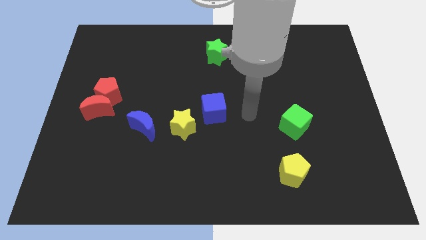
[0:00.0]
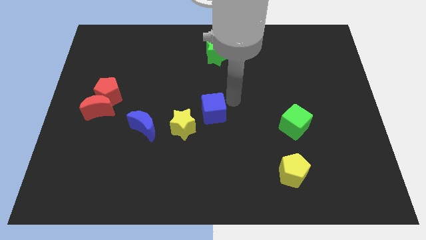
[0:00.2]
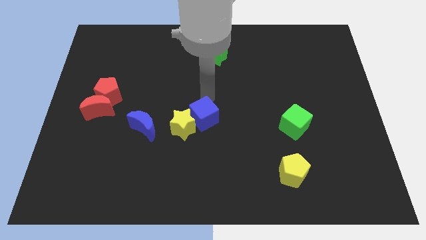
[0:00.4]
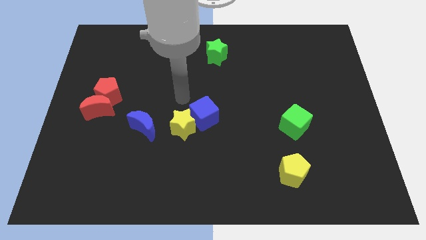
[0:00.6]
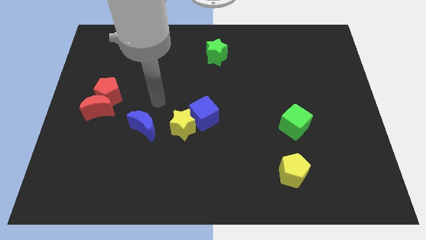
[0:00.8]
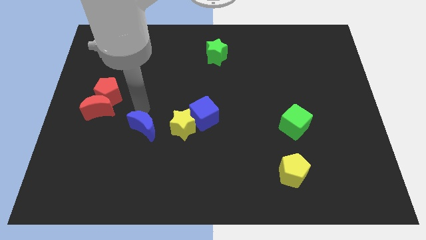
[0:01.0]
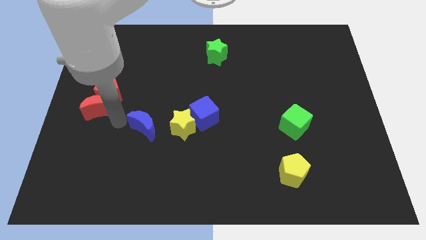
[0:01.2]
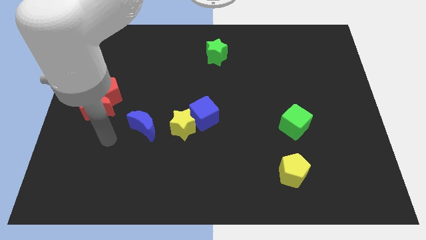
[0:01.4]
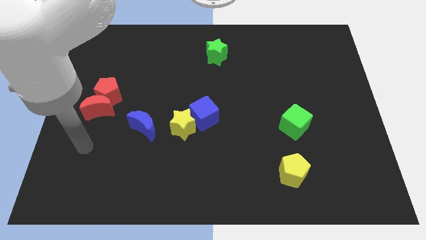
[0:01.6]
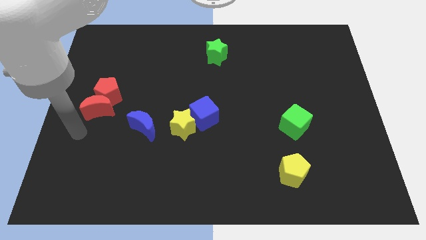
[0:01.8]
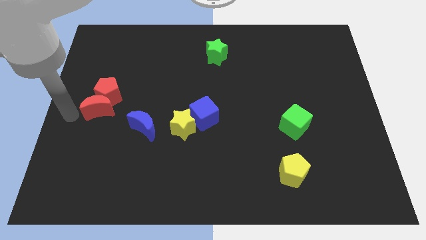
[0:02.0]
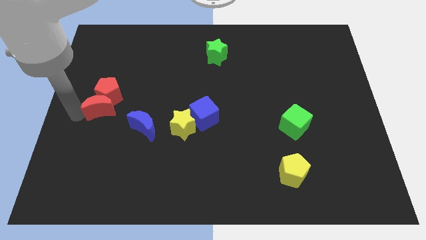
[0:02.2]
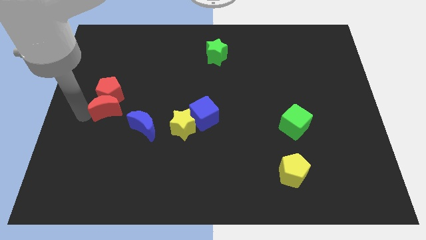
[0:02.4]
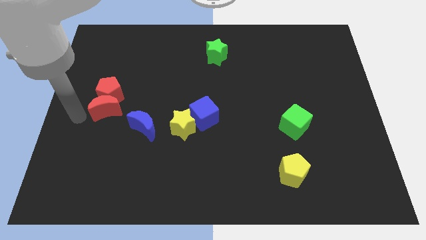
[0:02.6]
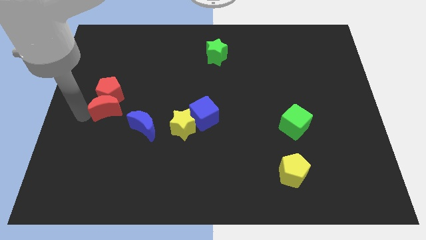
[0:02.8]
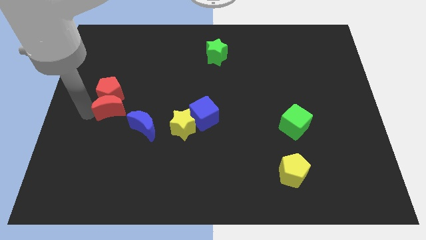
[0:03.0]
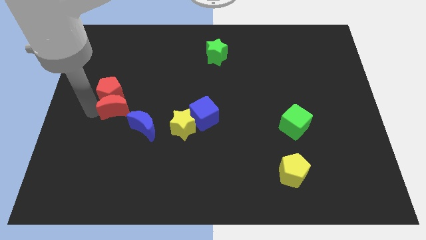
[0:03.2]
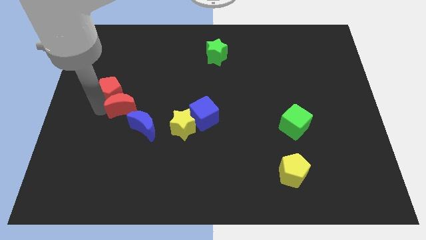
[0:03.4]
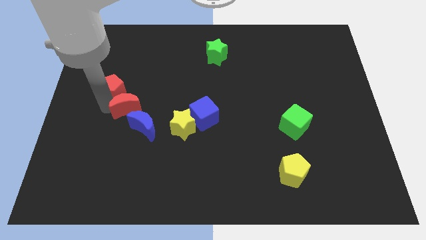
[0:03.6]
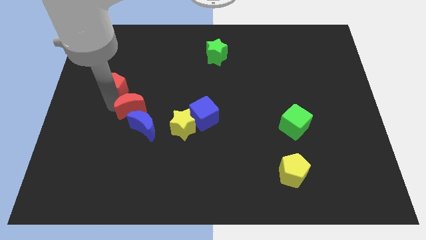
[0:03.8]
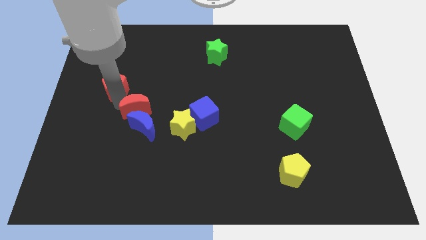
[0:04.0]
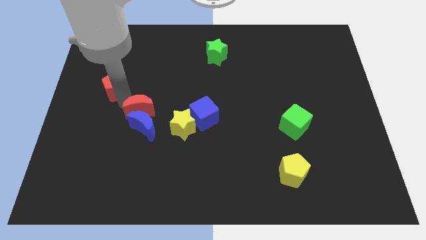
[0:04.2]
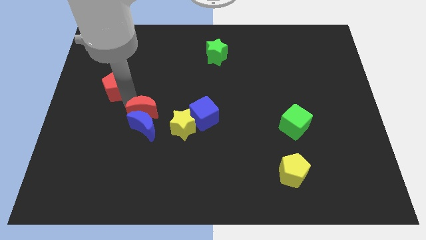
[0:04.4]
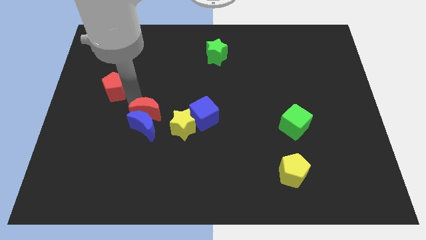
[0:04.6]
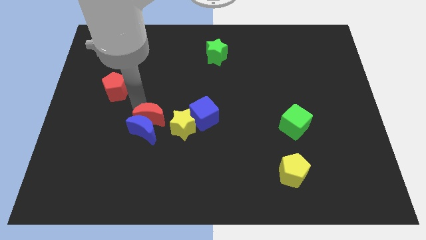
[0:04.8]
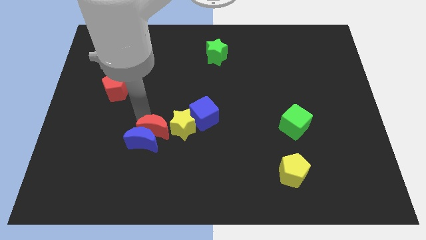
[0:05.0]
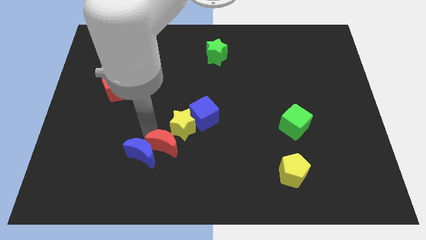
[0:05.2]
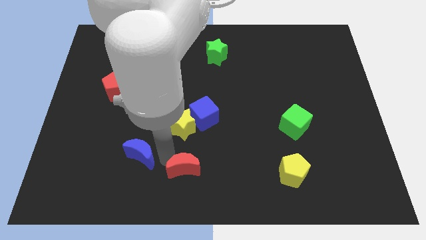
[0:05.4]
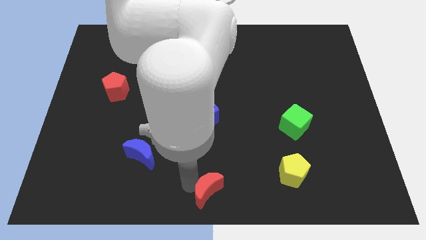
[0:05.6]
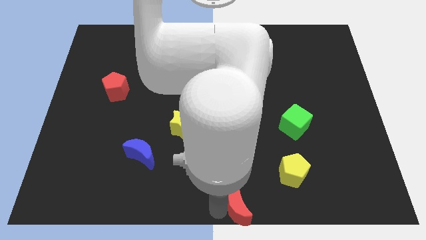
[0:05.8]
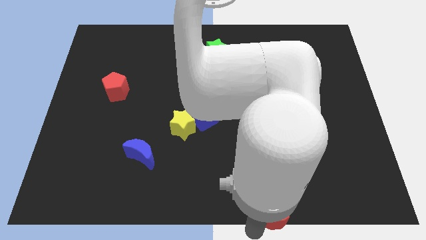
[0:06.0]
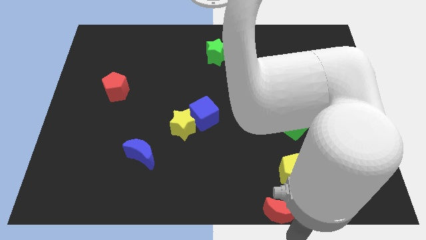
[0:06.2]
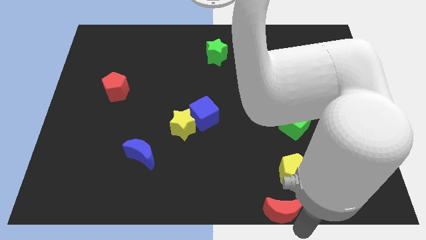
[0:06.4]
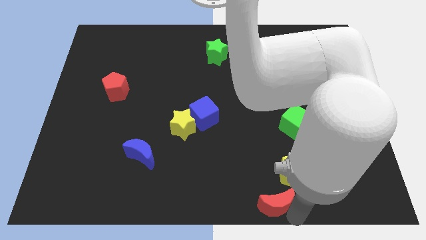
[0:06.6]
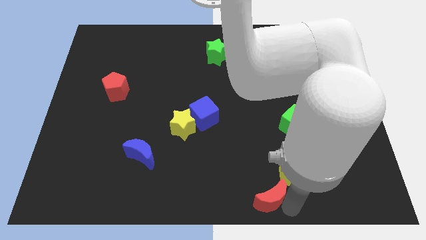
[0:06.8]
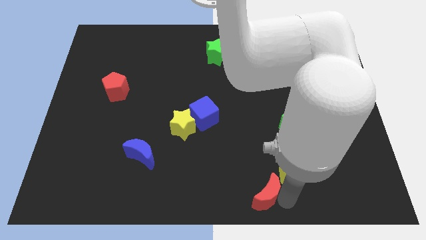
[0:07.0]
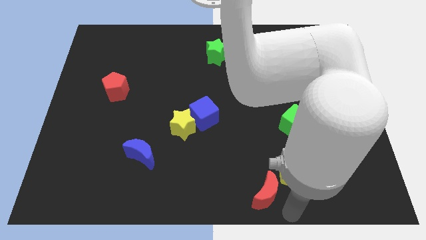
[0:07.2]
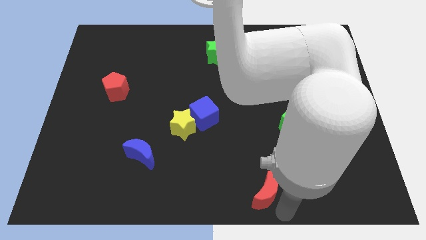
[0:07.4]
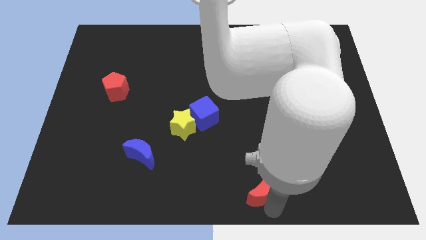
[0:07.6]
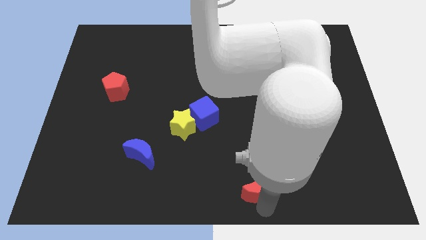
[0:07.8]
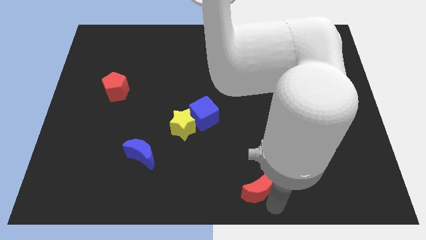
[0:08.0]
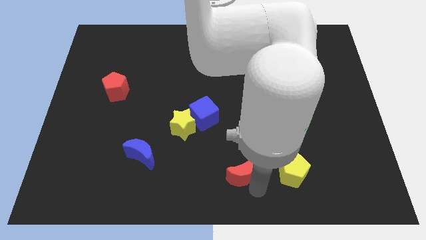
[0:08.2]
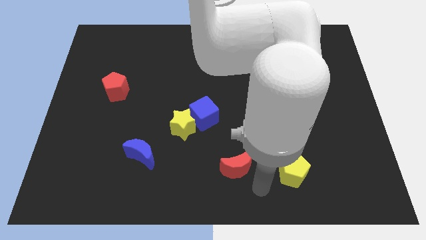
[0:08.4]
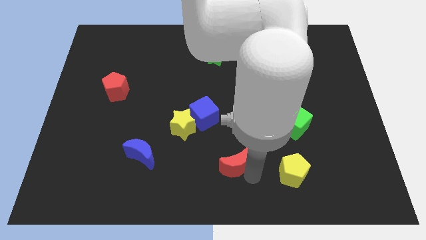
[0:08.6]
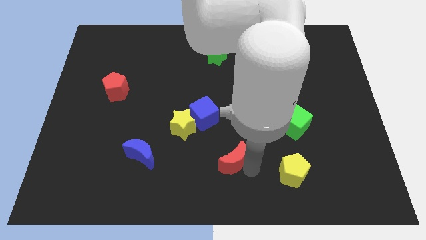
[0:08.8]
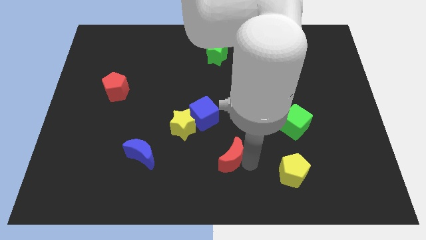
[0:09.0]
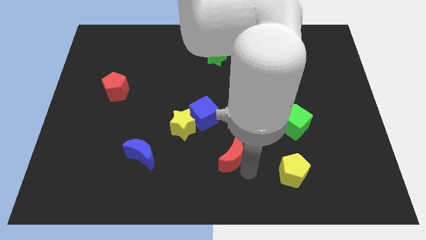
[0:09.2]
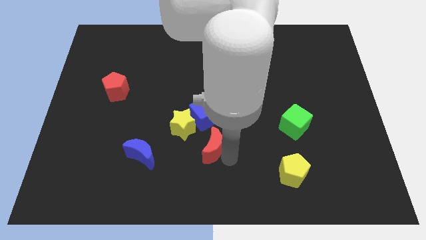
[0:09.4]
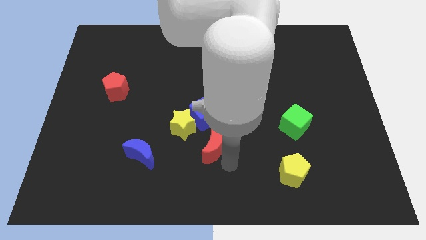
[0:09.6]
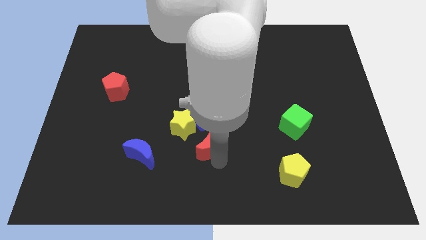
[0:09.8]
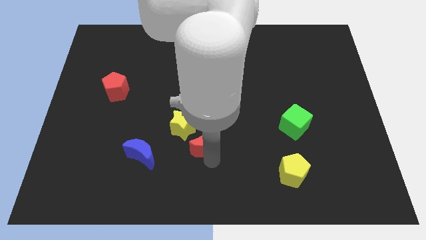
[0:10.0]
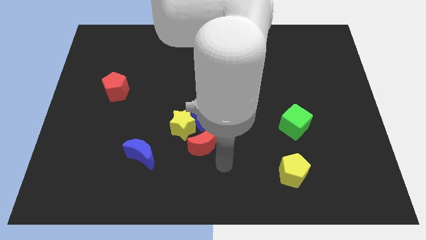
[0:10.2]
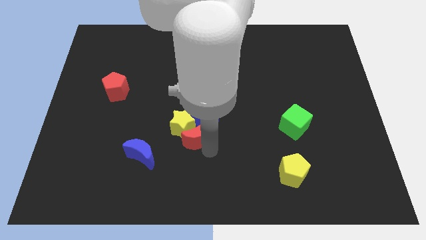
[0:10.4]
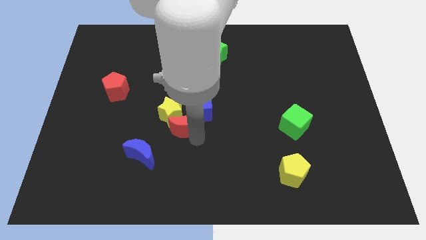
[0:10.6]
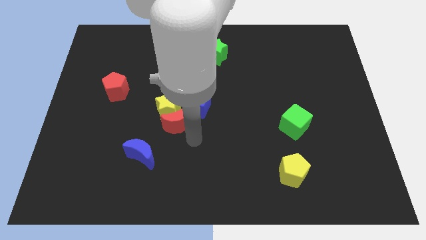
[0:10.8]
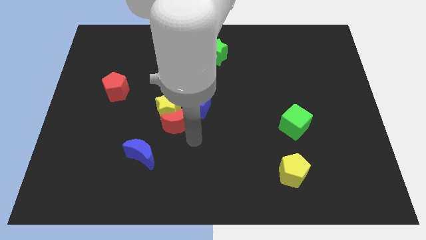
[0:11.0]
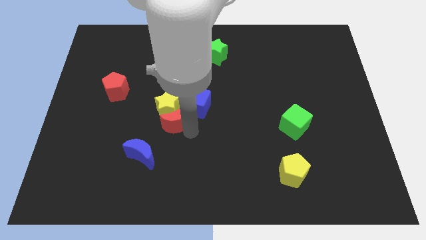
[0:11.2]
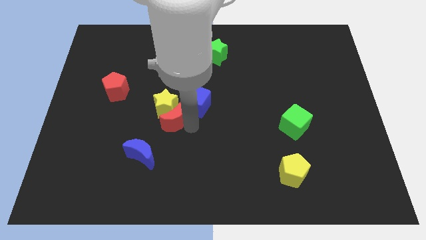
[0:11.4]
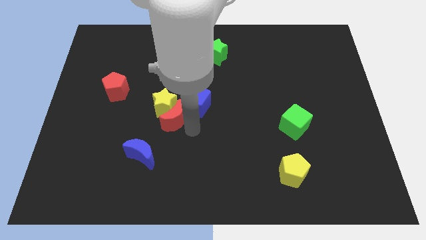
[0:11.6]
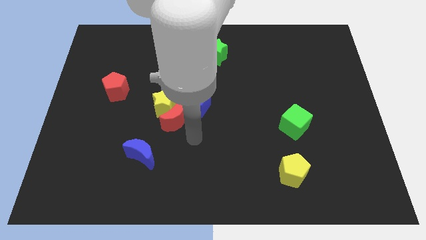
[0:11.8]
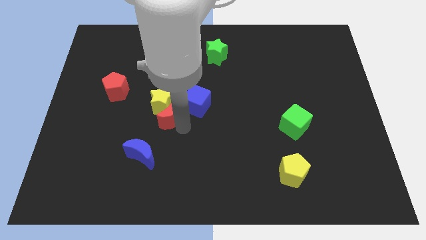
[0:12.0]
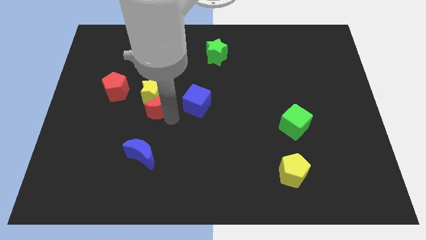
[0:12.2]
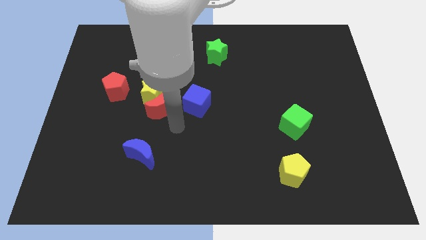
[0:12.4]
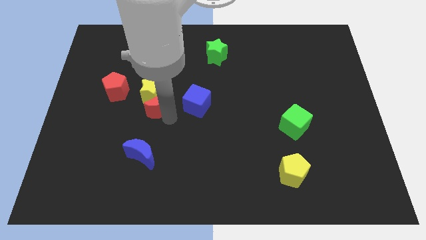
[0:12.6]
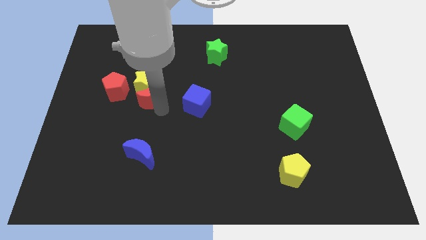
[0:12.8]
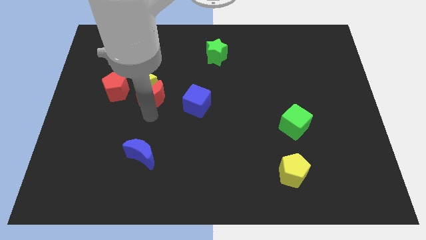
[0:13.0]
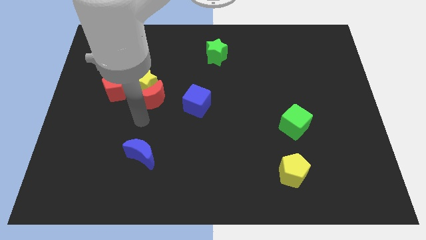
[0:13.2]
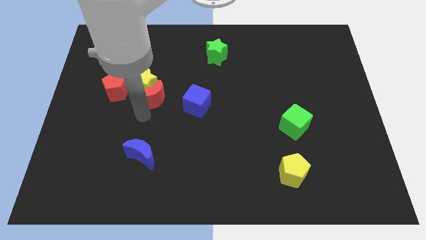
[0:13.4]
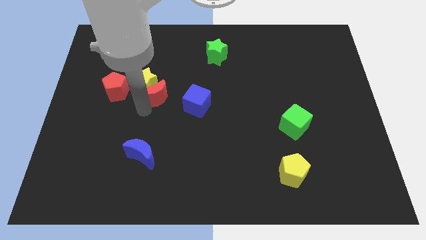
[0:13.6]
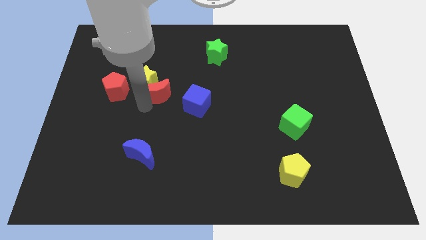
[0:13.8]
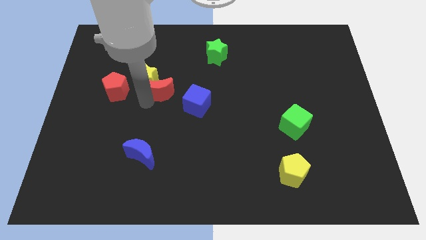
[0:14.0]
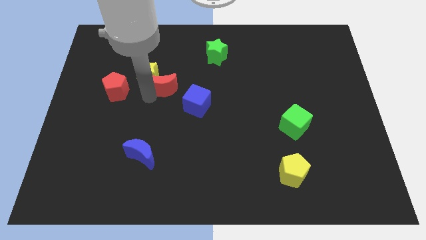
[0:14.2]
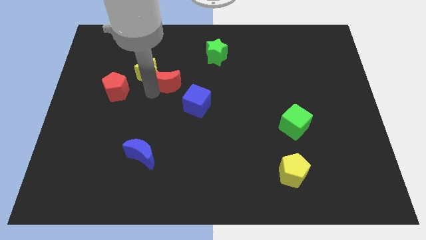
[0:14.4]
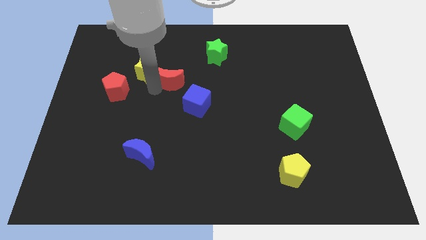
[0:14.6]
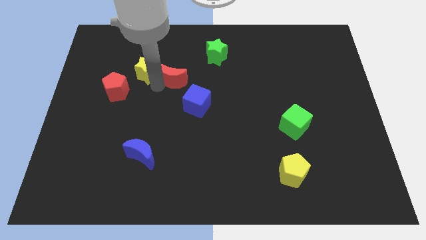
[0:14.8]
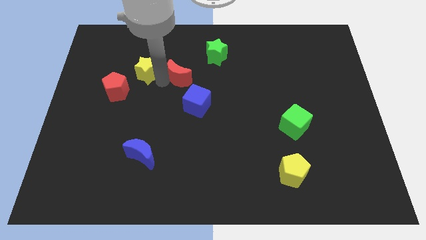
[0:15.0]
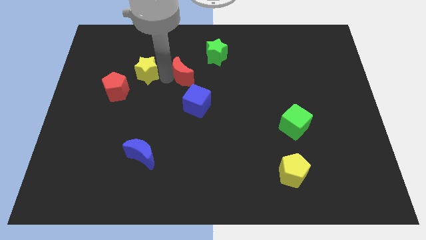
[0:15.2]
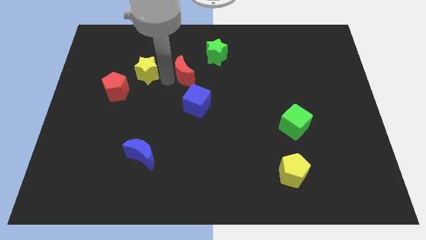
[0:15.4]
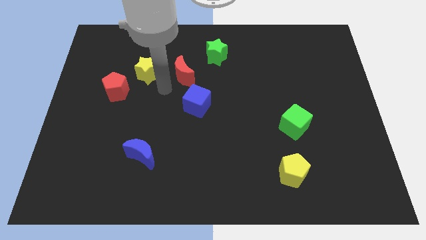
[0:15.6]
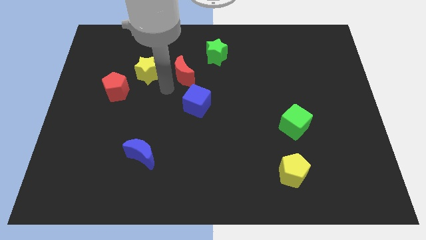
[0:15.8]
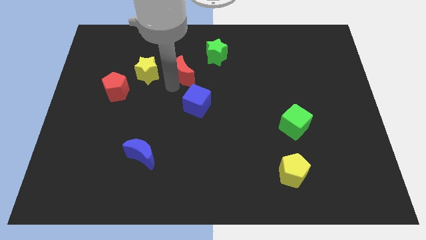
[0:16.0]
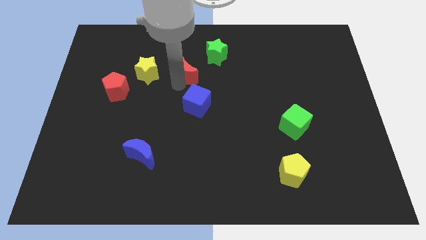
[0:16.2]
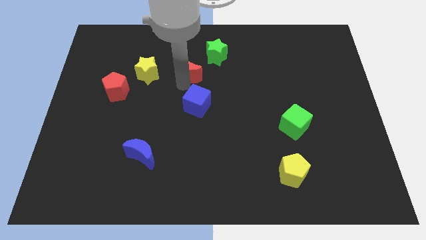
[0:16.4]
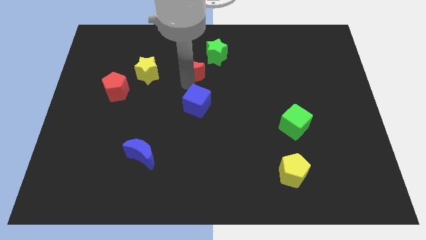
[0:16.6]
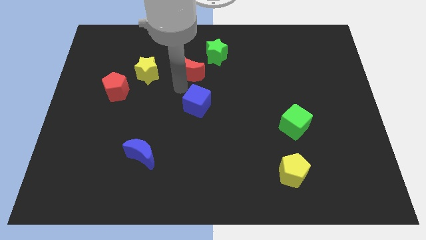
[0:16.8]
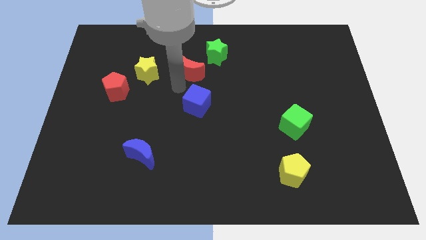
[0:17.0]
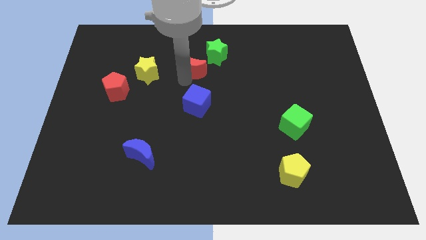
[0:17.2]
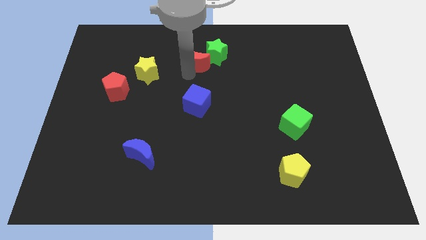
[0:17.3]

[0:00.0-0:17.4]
push the red moon towards the green star
